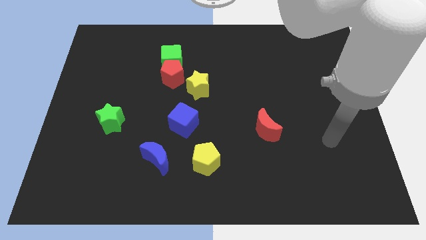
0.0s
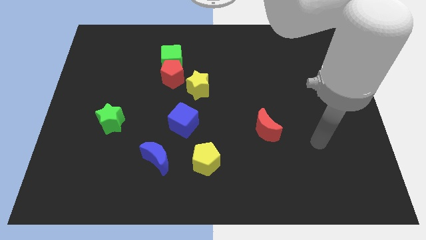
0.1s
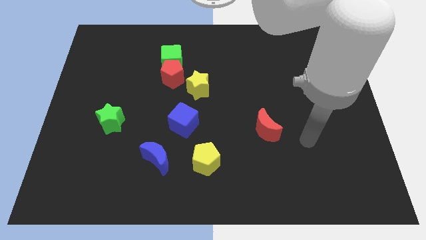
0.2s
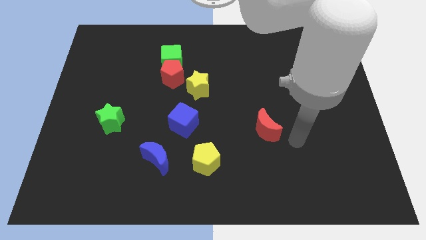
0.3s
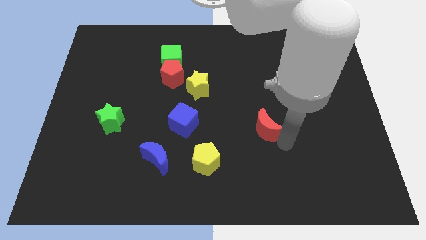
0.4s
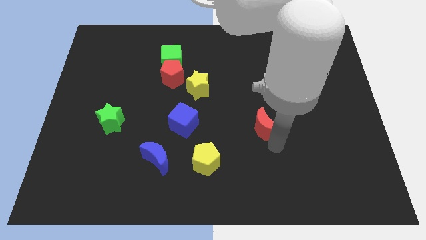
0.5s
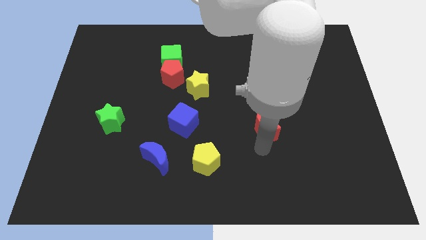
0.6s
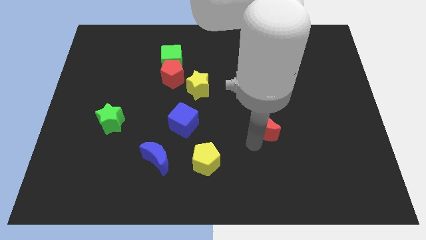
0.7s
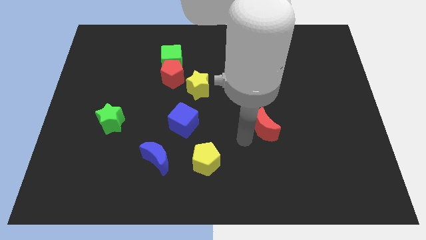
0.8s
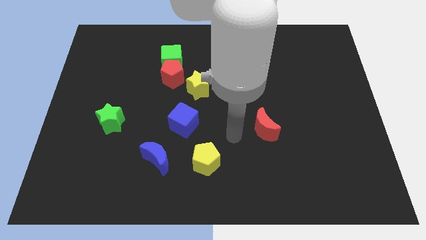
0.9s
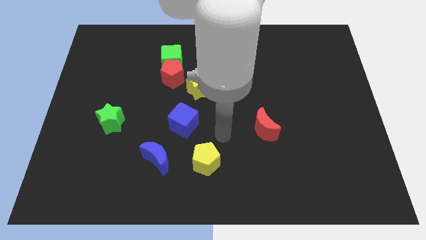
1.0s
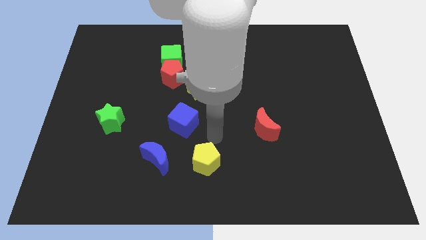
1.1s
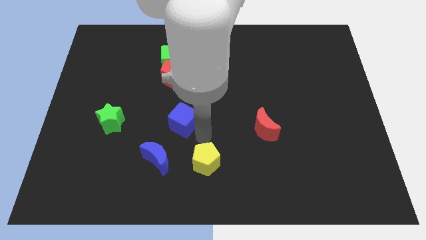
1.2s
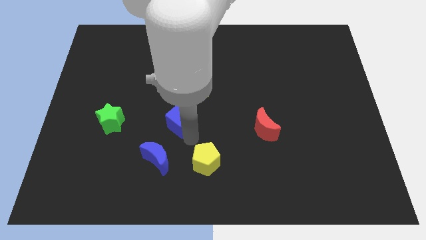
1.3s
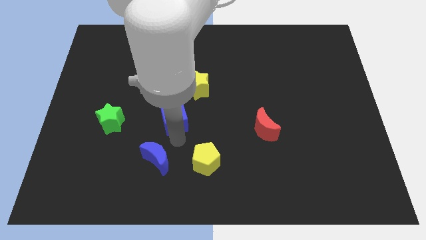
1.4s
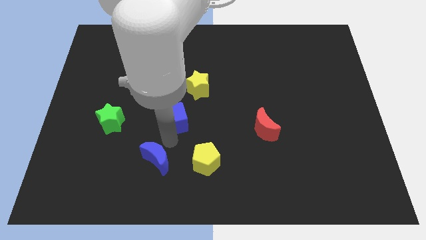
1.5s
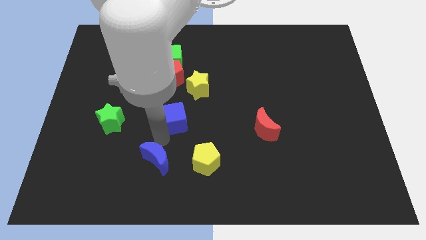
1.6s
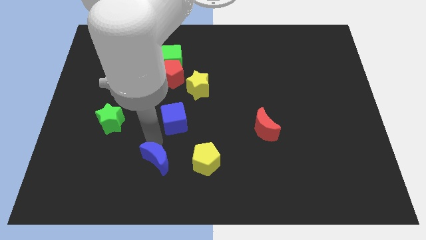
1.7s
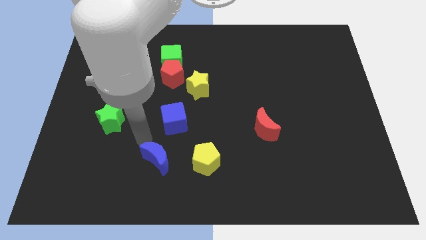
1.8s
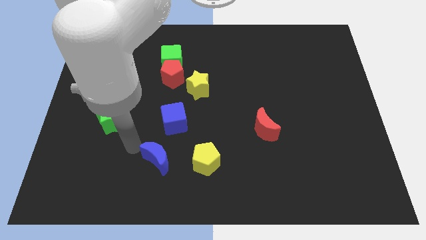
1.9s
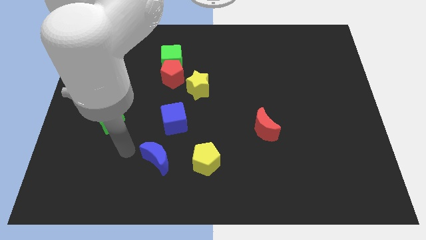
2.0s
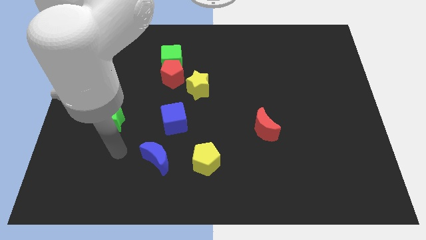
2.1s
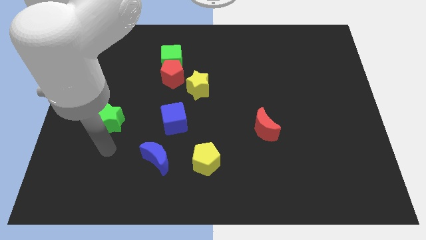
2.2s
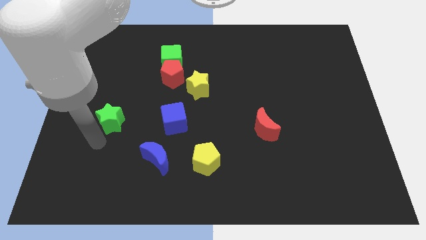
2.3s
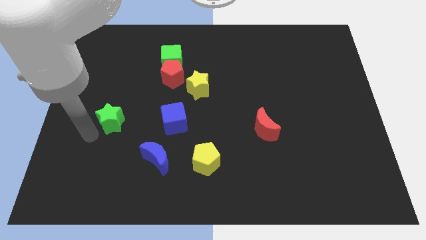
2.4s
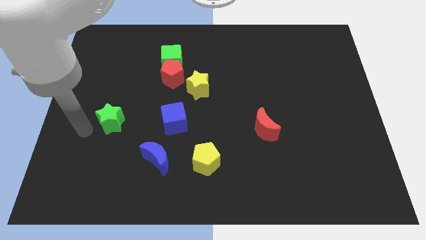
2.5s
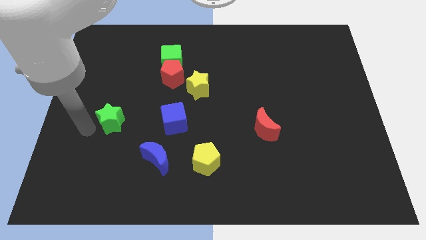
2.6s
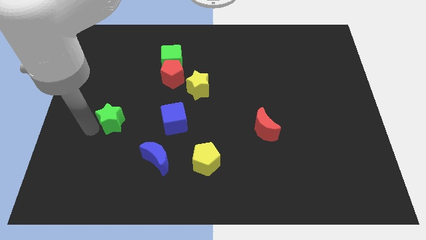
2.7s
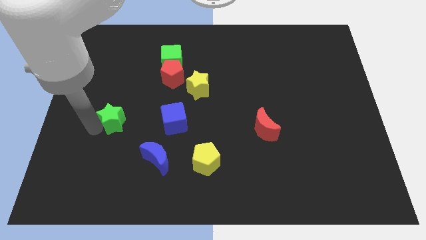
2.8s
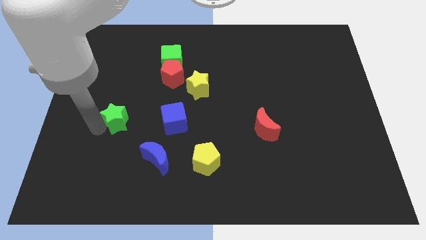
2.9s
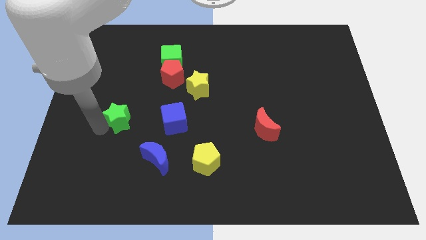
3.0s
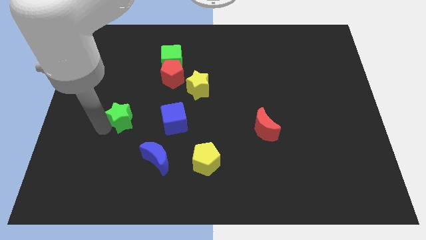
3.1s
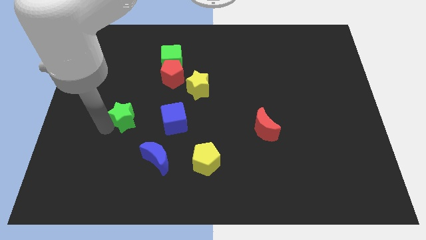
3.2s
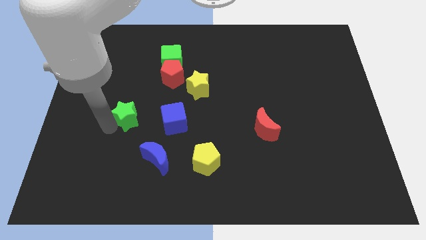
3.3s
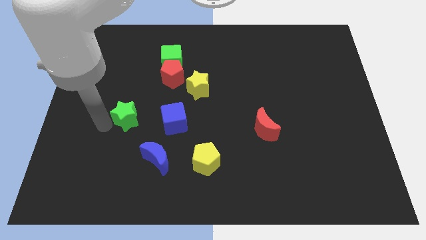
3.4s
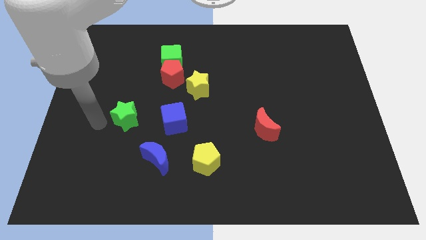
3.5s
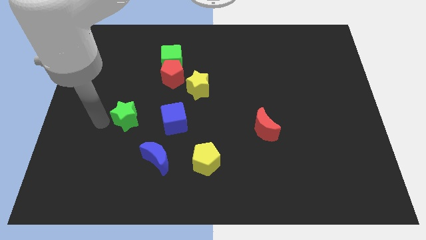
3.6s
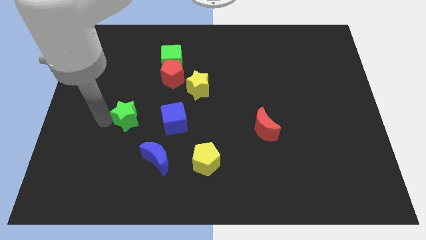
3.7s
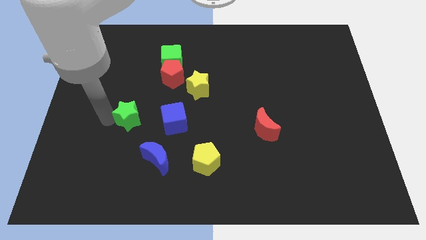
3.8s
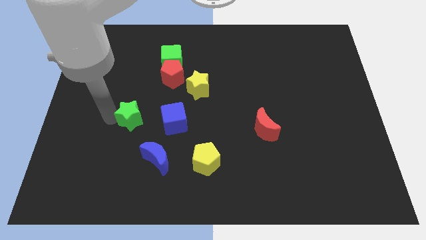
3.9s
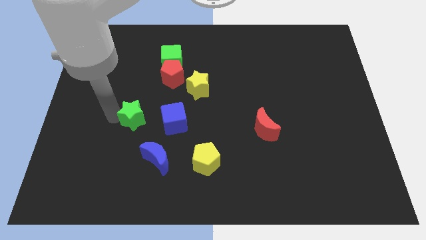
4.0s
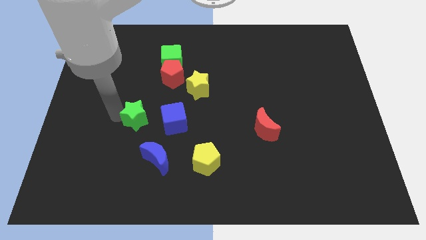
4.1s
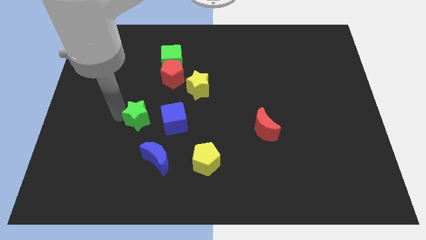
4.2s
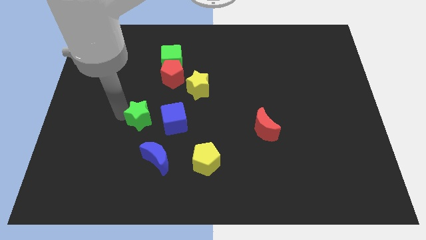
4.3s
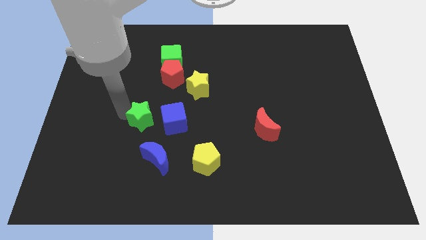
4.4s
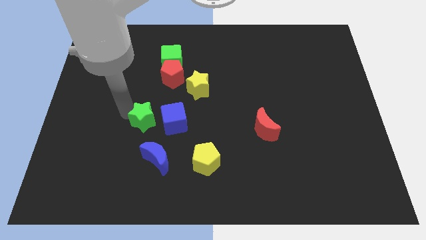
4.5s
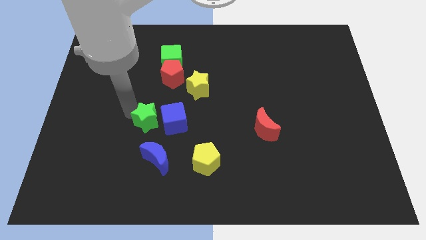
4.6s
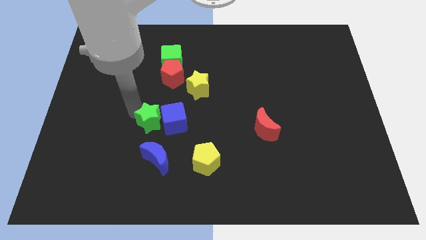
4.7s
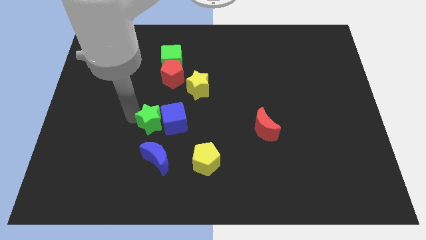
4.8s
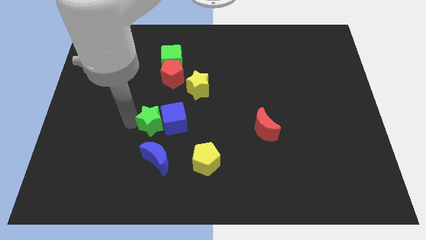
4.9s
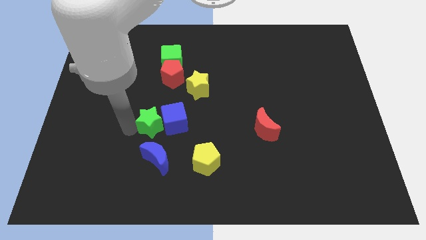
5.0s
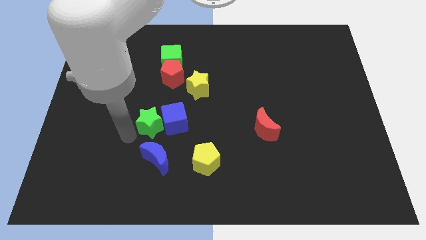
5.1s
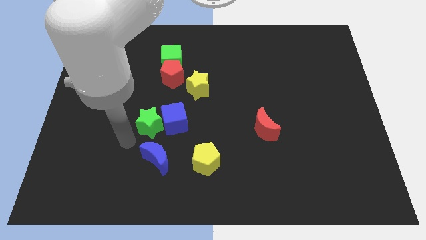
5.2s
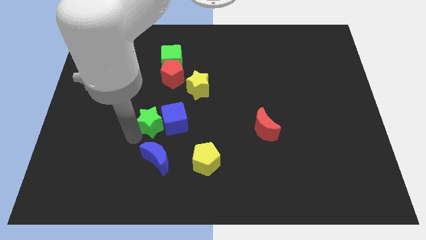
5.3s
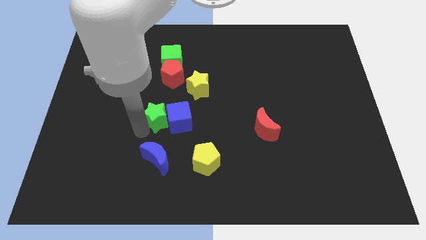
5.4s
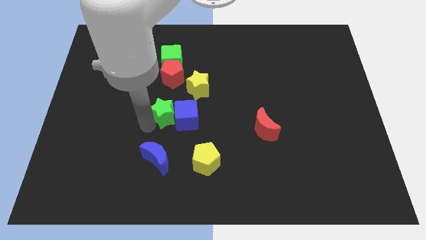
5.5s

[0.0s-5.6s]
move the green star diagonally down and to the left of the yellow star

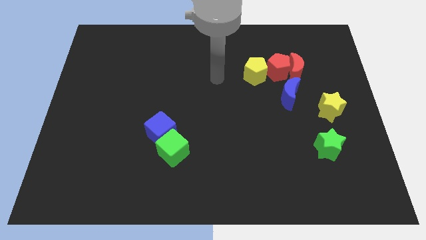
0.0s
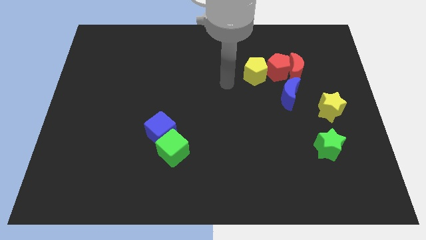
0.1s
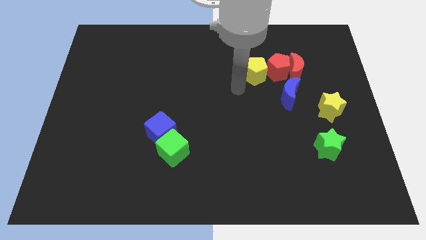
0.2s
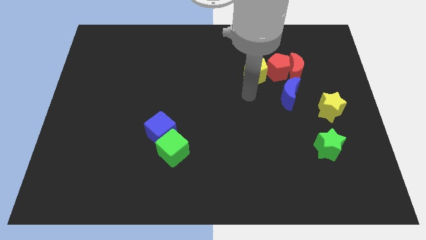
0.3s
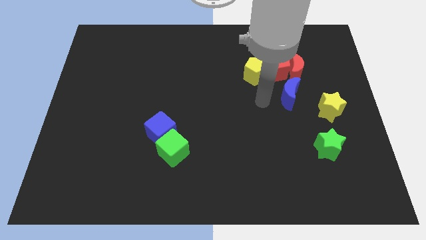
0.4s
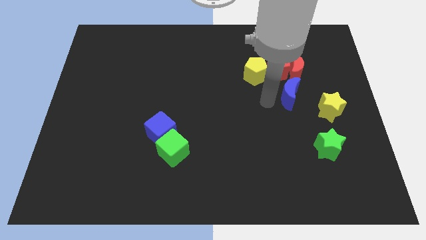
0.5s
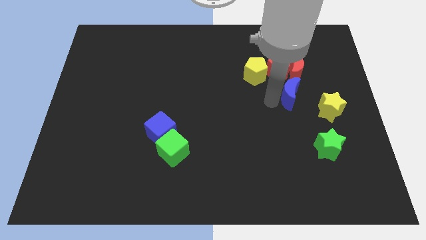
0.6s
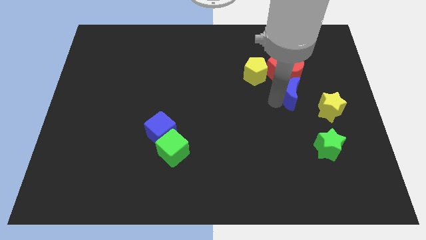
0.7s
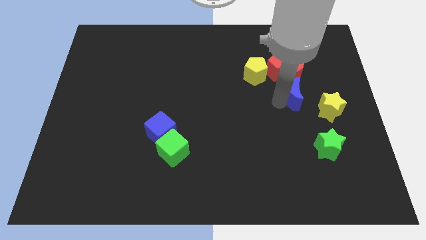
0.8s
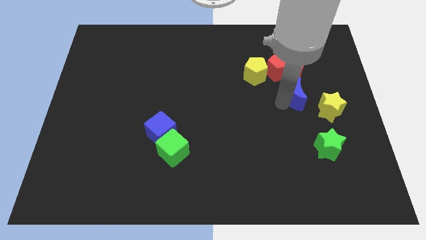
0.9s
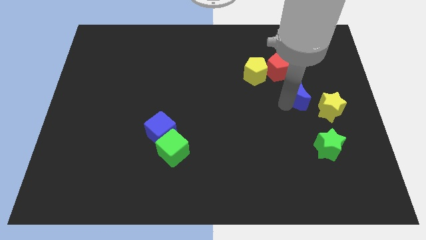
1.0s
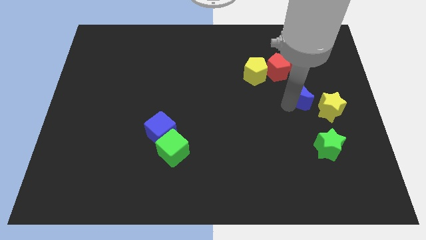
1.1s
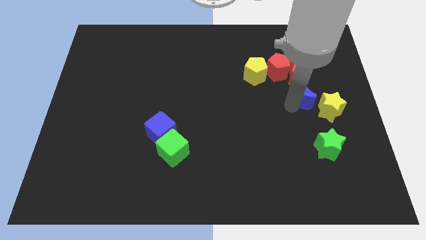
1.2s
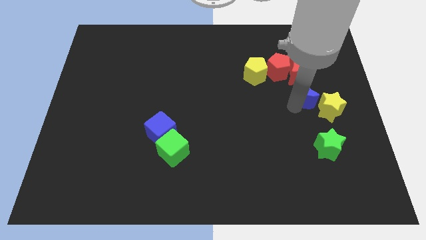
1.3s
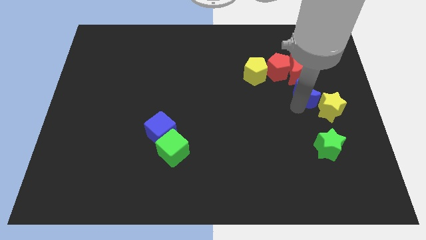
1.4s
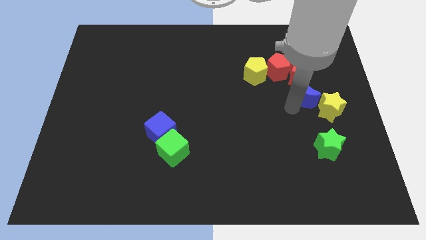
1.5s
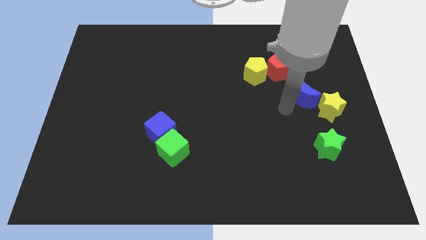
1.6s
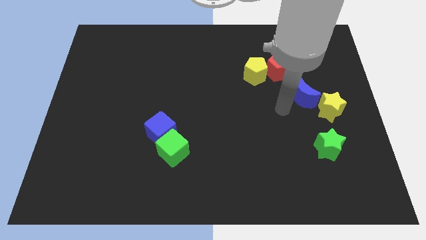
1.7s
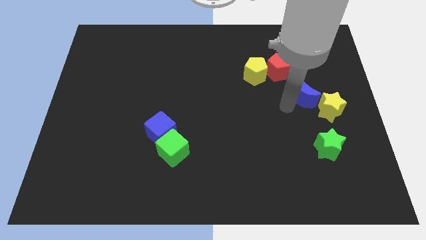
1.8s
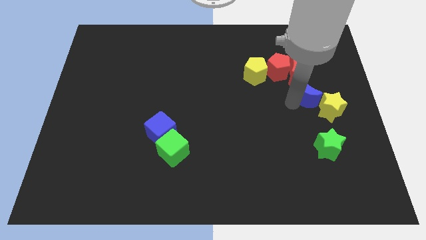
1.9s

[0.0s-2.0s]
push the blue moon to the bottom right of the red moon
